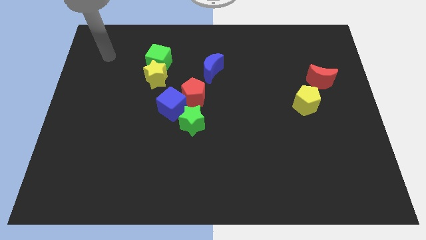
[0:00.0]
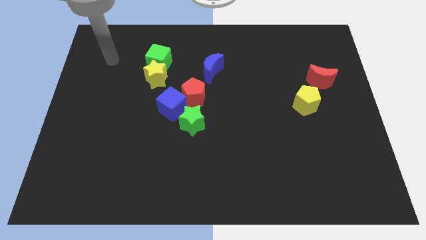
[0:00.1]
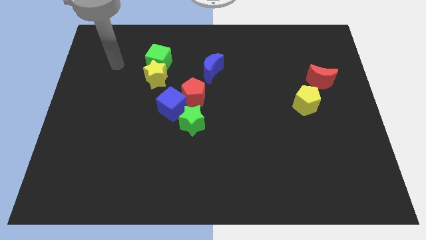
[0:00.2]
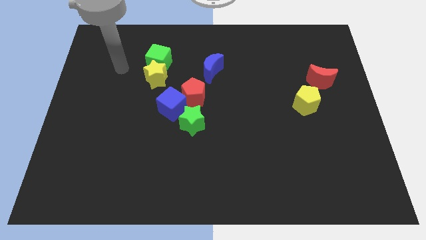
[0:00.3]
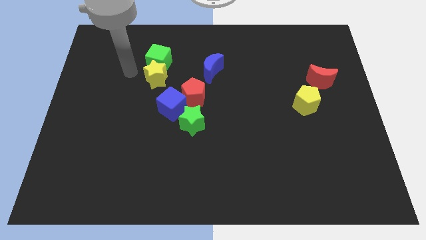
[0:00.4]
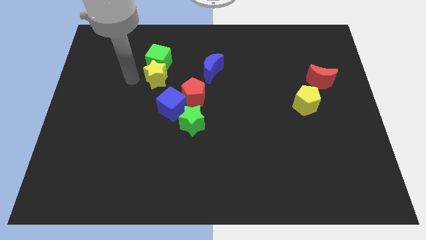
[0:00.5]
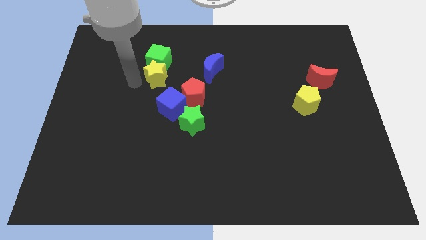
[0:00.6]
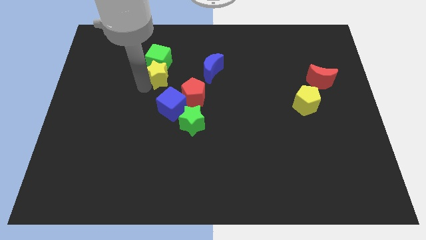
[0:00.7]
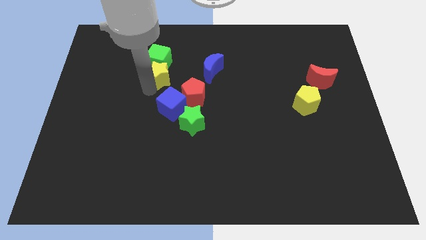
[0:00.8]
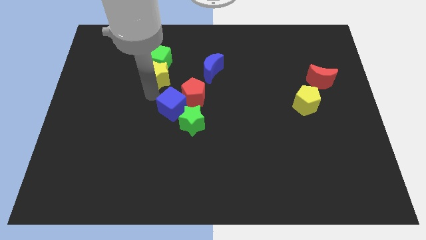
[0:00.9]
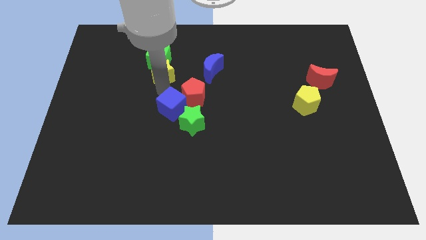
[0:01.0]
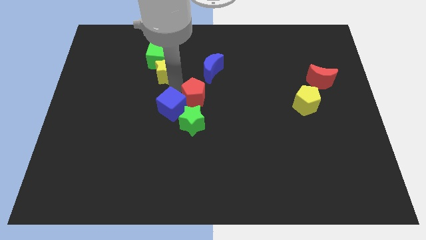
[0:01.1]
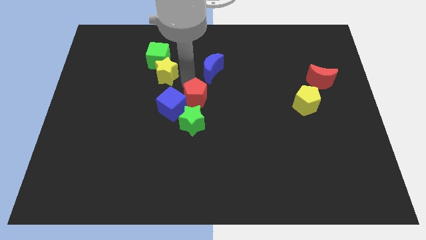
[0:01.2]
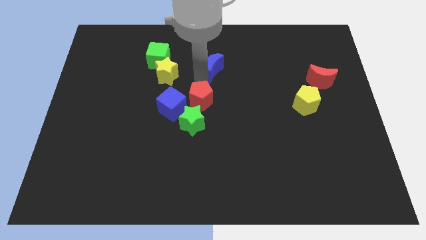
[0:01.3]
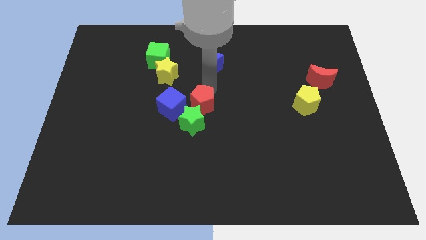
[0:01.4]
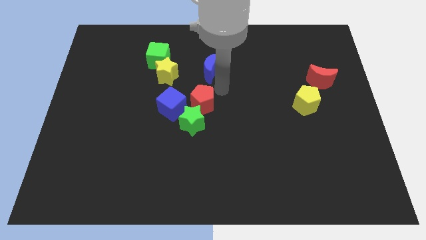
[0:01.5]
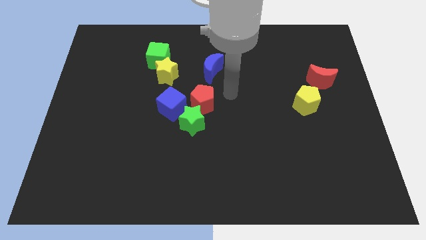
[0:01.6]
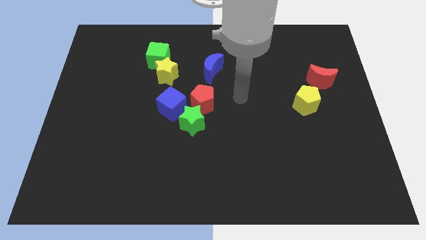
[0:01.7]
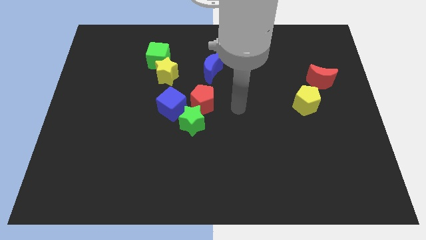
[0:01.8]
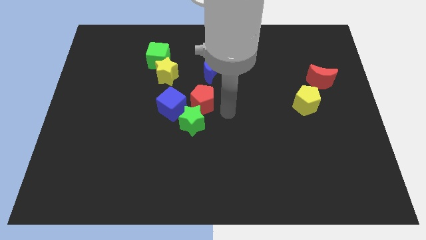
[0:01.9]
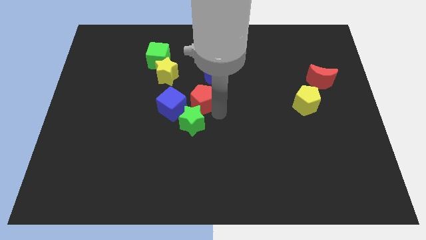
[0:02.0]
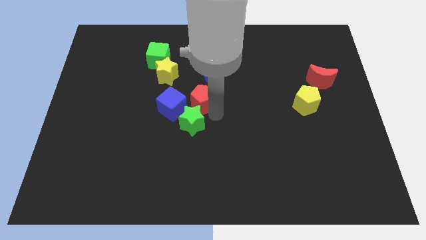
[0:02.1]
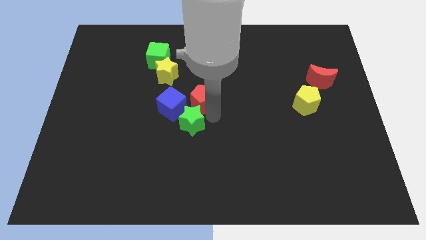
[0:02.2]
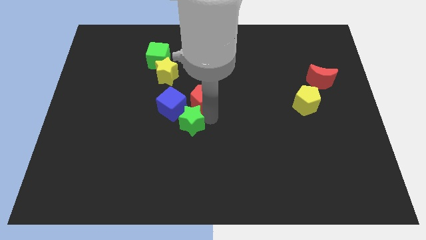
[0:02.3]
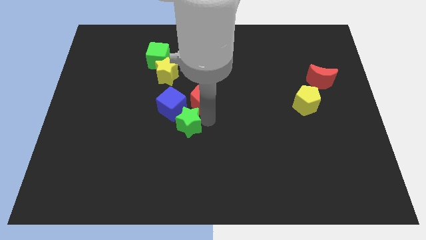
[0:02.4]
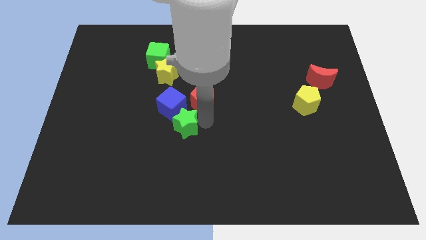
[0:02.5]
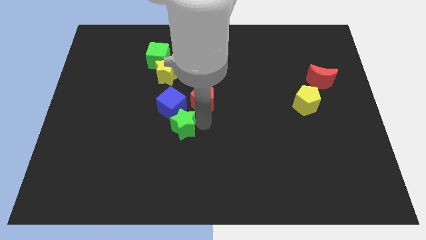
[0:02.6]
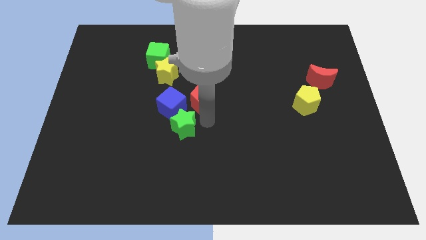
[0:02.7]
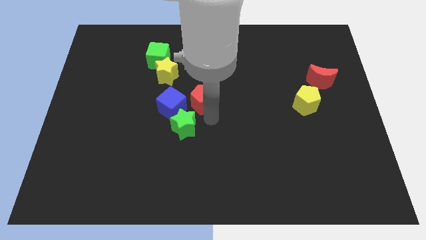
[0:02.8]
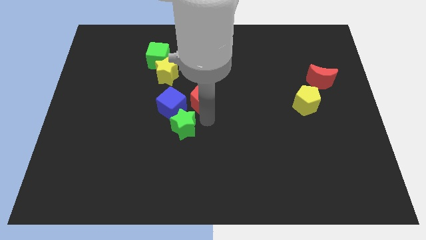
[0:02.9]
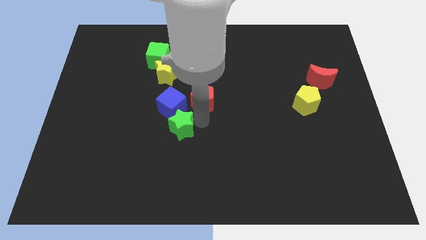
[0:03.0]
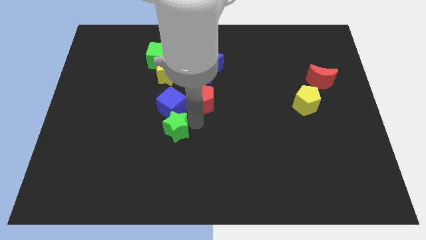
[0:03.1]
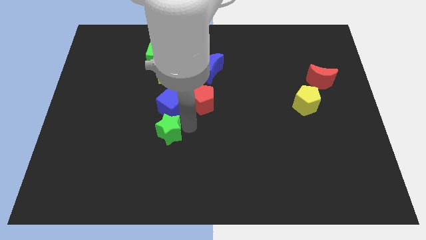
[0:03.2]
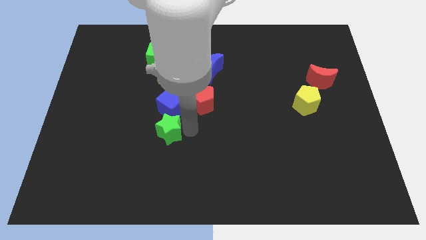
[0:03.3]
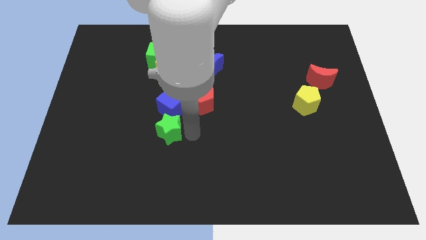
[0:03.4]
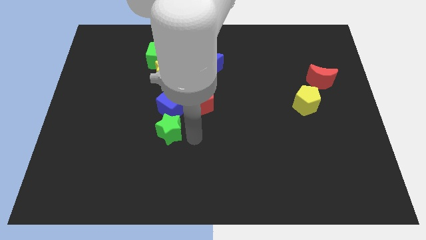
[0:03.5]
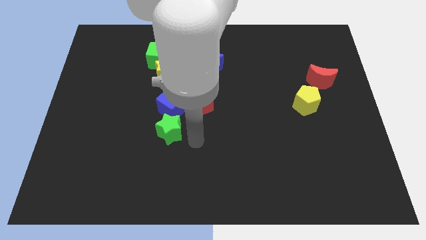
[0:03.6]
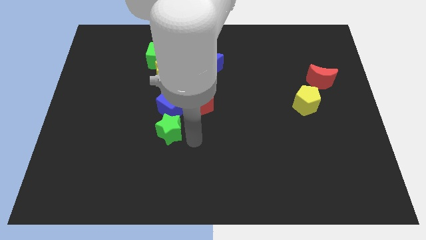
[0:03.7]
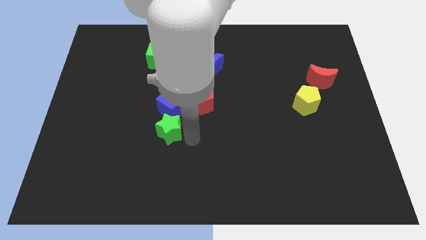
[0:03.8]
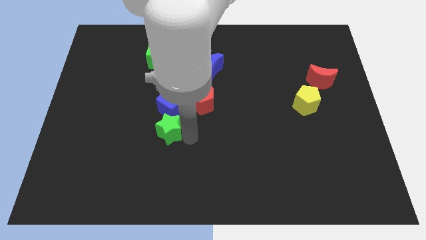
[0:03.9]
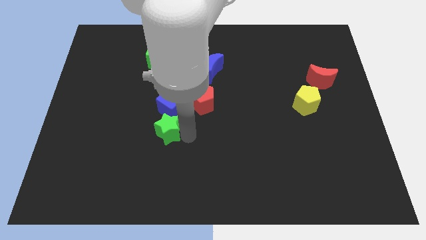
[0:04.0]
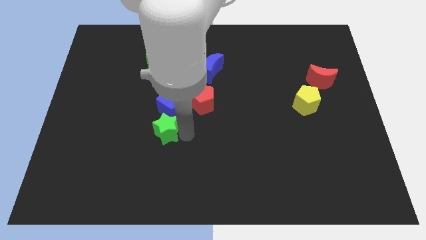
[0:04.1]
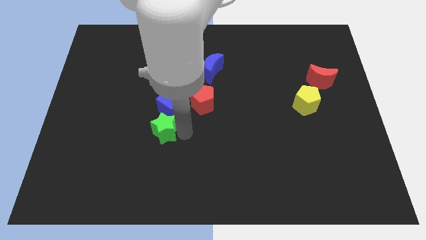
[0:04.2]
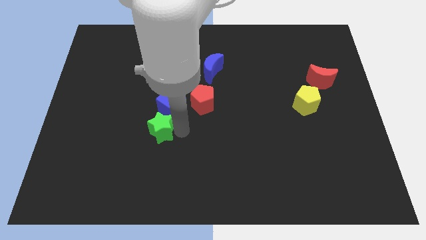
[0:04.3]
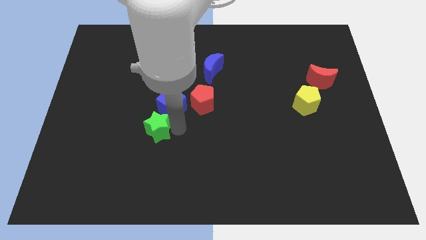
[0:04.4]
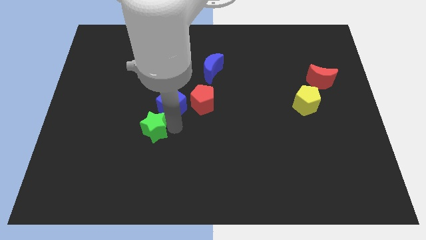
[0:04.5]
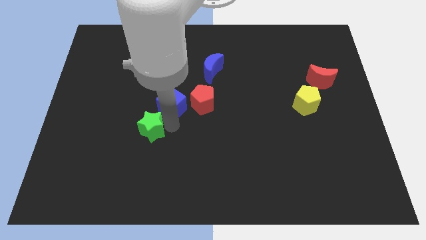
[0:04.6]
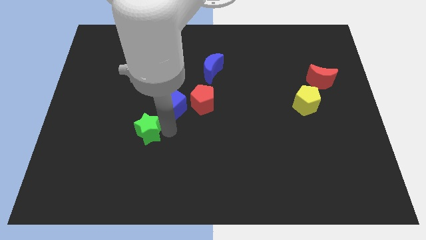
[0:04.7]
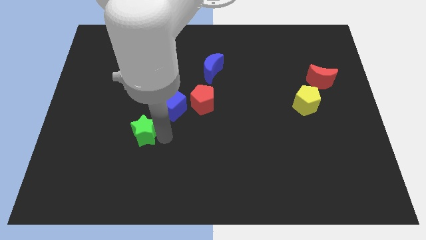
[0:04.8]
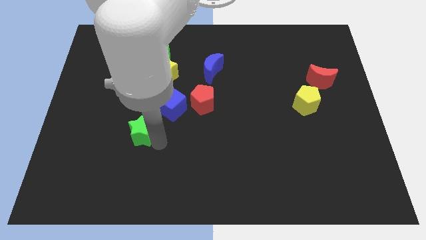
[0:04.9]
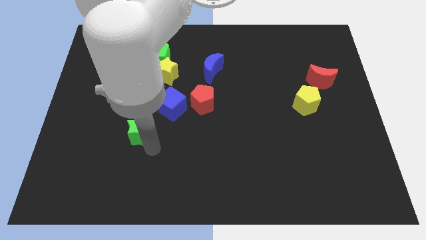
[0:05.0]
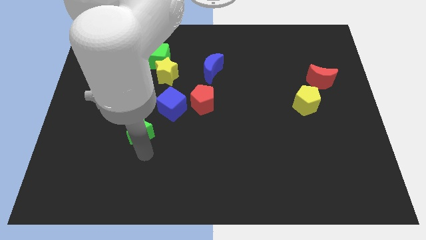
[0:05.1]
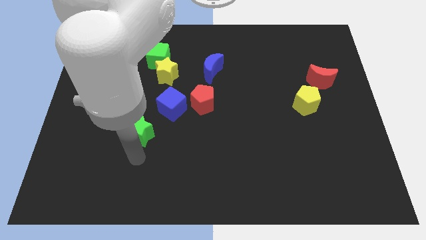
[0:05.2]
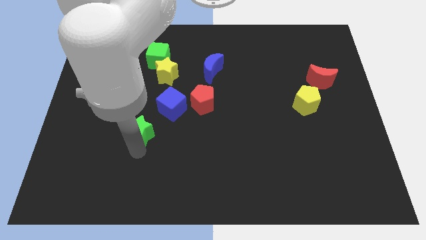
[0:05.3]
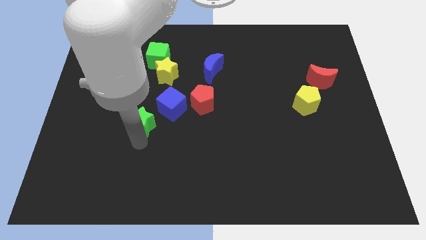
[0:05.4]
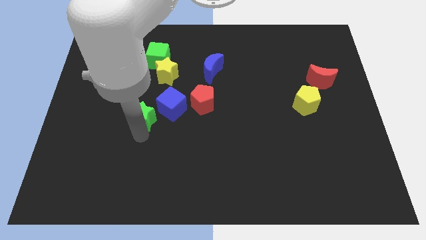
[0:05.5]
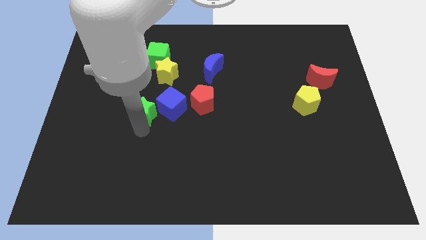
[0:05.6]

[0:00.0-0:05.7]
slide the green star up and left a bit

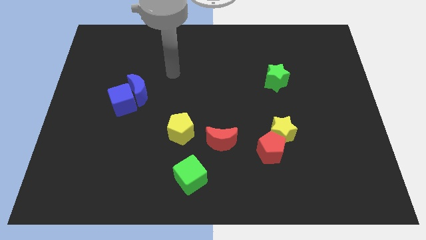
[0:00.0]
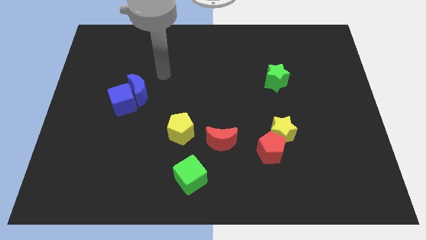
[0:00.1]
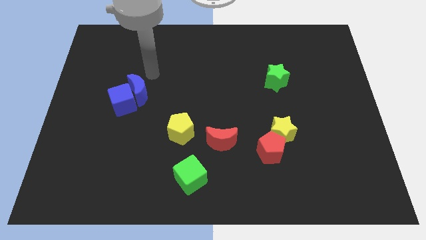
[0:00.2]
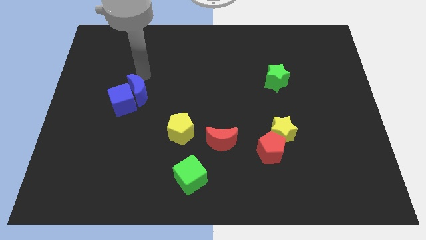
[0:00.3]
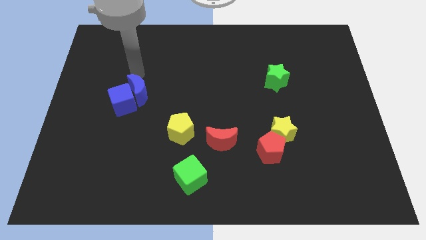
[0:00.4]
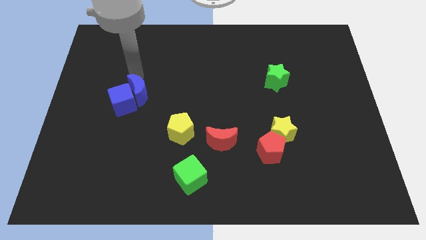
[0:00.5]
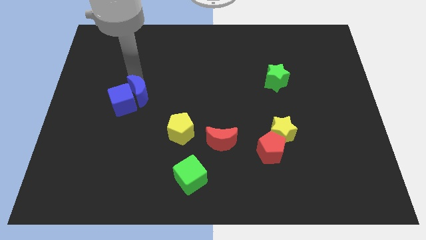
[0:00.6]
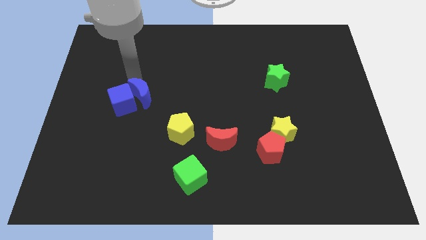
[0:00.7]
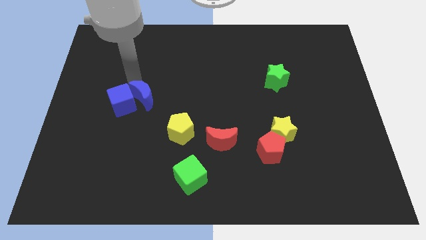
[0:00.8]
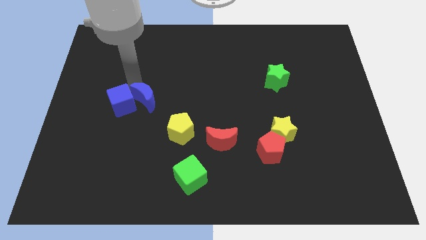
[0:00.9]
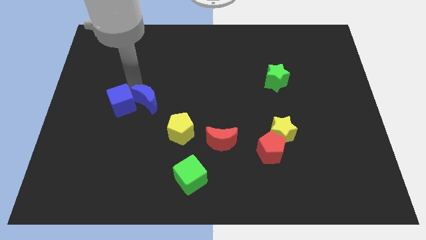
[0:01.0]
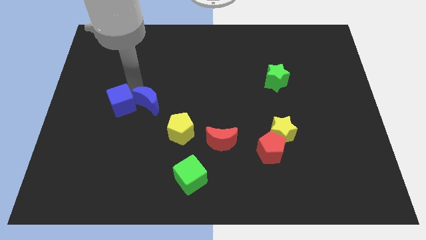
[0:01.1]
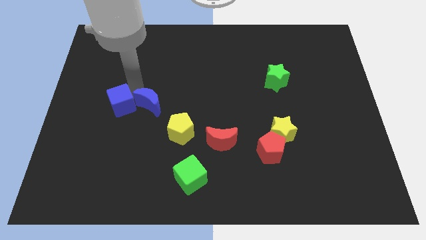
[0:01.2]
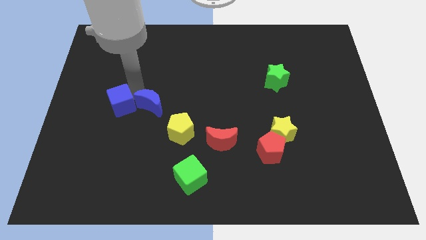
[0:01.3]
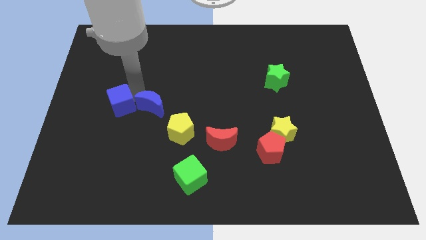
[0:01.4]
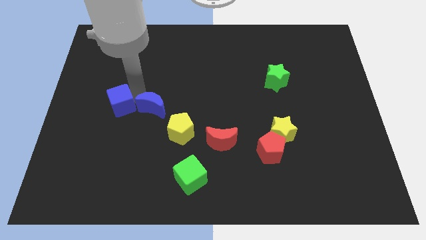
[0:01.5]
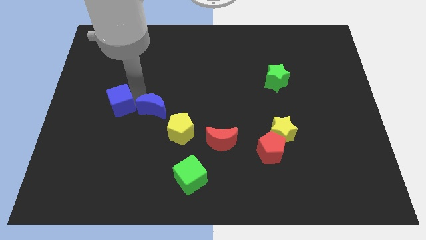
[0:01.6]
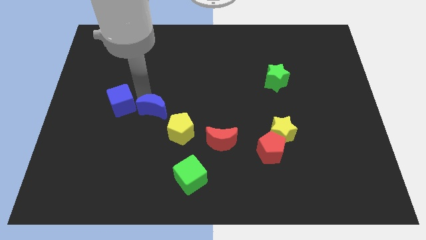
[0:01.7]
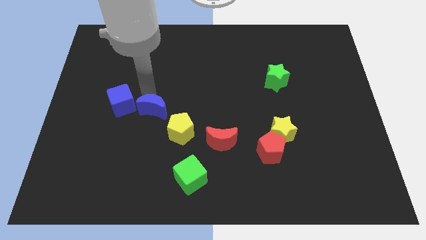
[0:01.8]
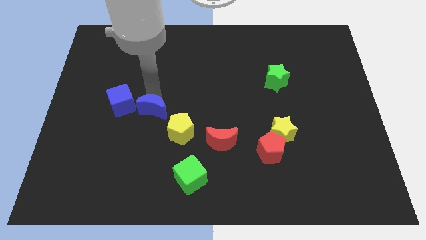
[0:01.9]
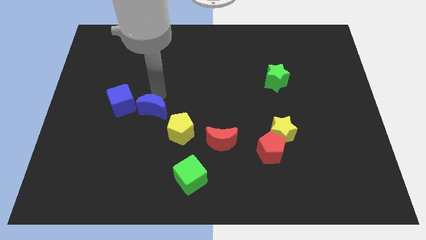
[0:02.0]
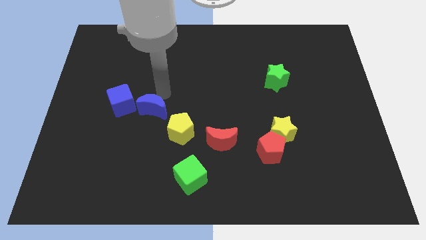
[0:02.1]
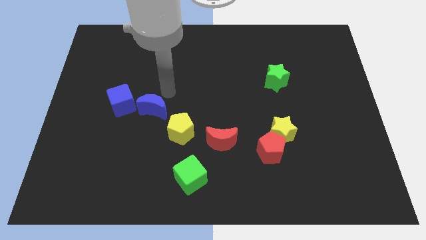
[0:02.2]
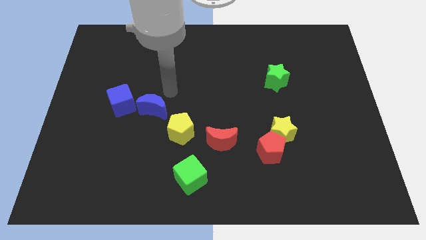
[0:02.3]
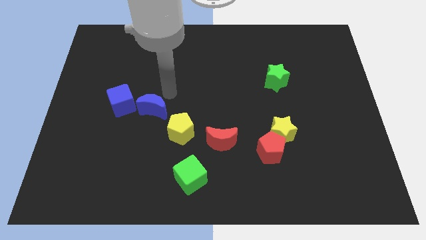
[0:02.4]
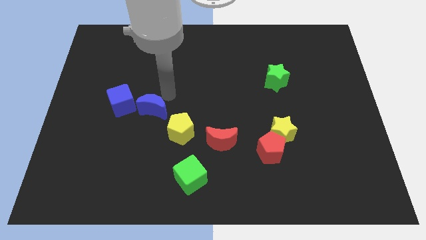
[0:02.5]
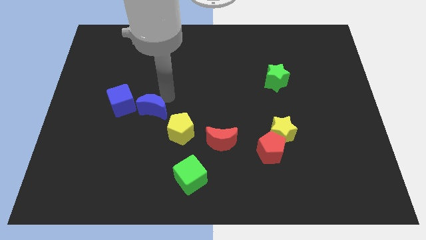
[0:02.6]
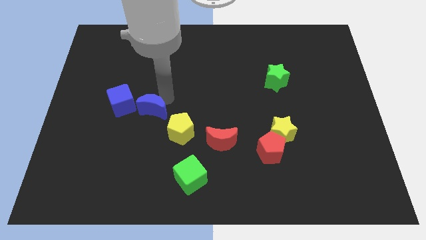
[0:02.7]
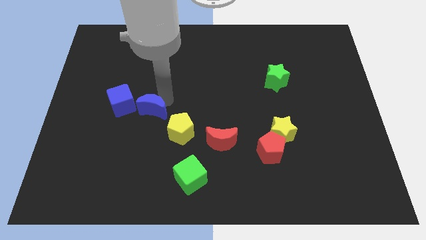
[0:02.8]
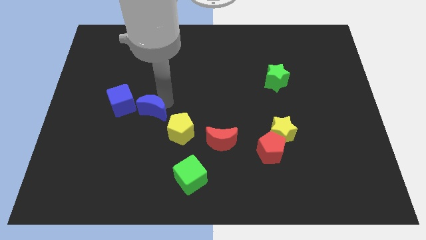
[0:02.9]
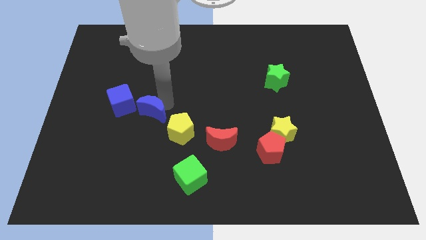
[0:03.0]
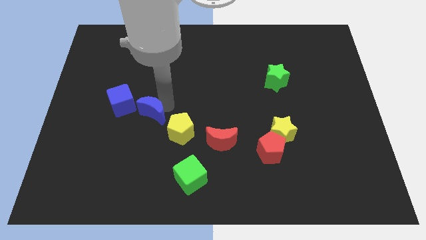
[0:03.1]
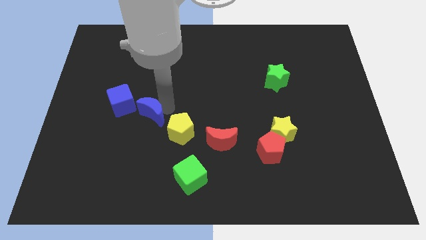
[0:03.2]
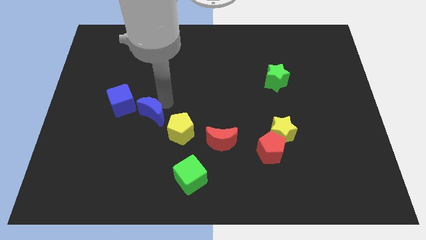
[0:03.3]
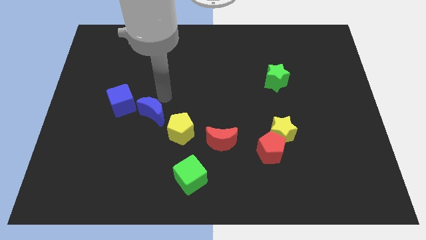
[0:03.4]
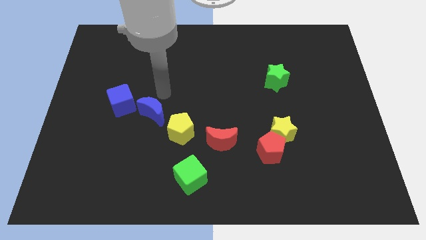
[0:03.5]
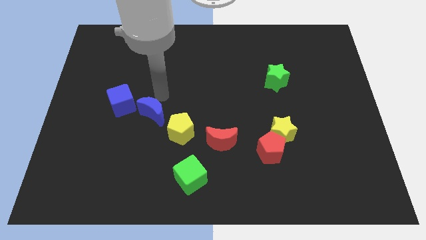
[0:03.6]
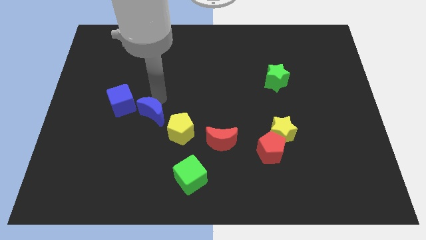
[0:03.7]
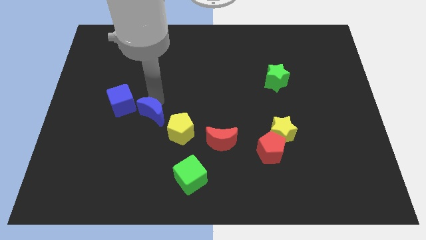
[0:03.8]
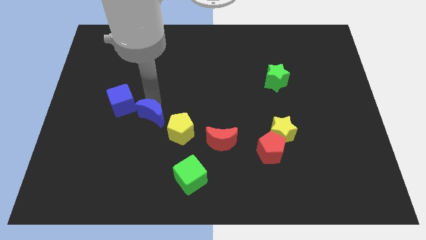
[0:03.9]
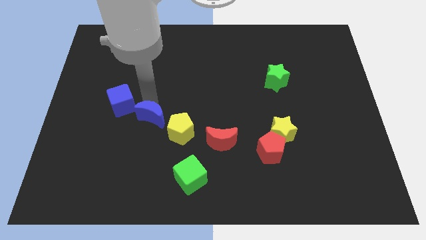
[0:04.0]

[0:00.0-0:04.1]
slightly move the blue moon down
